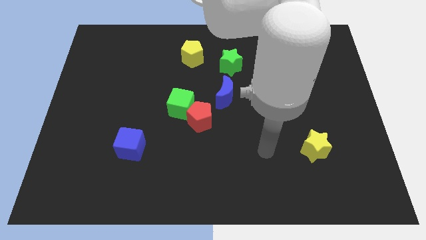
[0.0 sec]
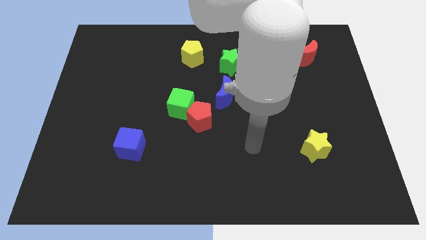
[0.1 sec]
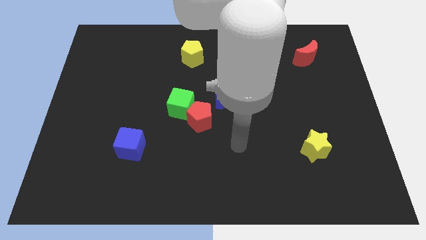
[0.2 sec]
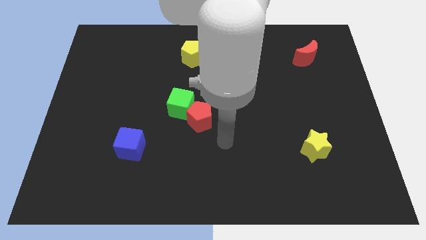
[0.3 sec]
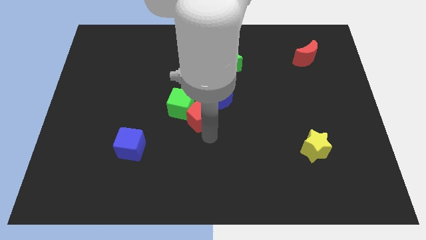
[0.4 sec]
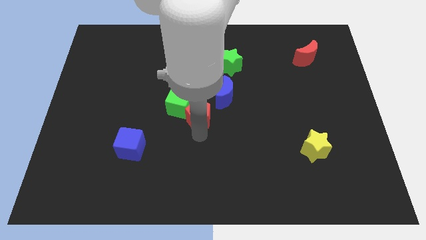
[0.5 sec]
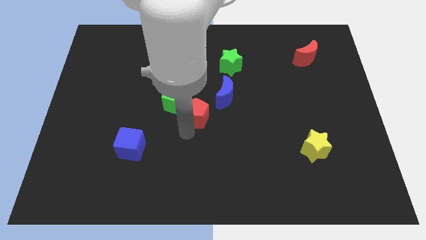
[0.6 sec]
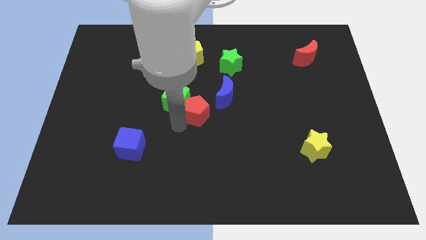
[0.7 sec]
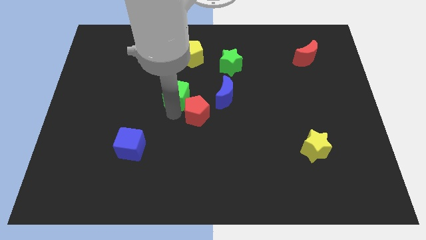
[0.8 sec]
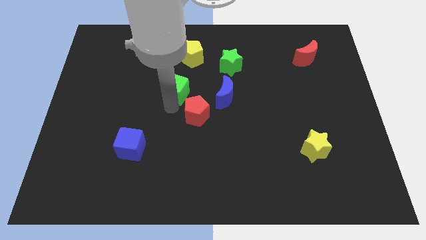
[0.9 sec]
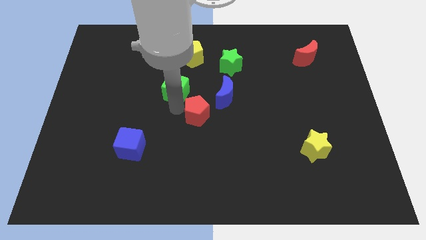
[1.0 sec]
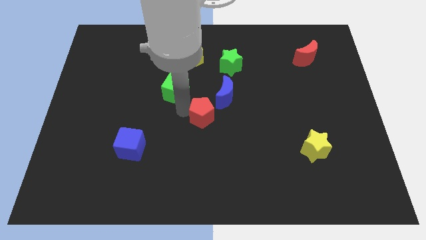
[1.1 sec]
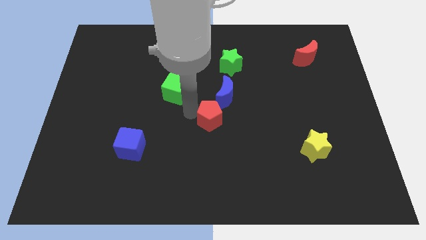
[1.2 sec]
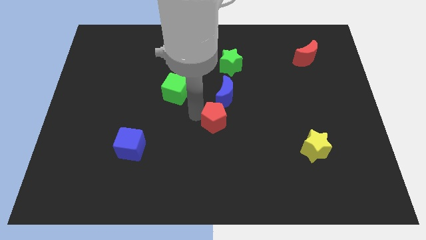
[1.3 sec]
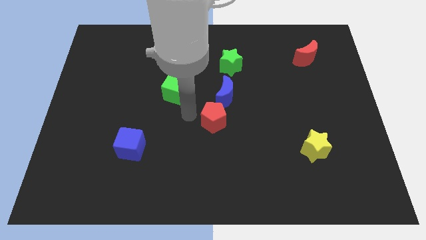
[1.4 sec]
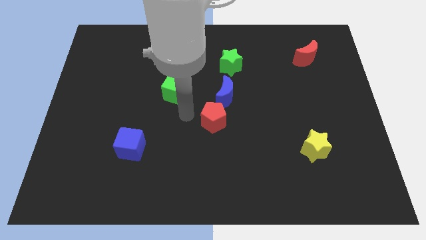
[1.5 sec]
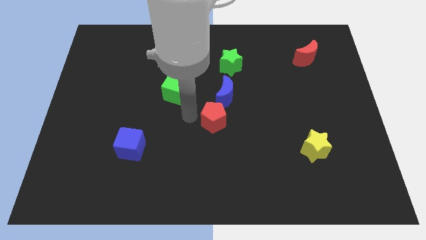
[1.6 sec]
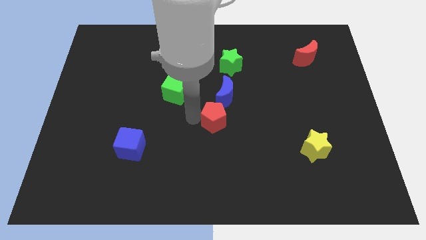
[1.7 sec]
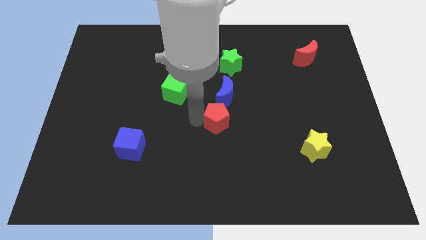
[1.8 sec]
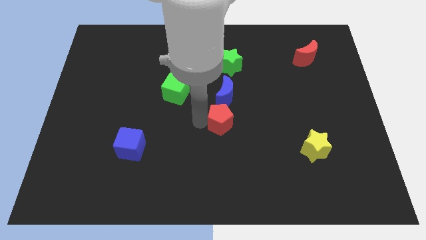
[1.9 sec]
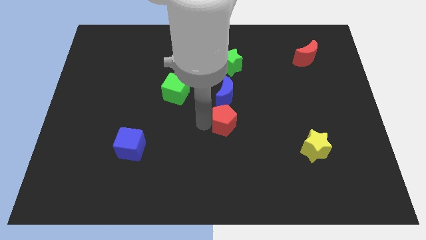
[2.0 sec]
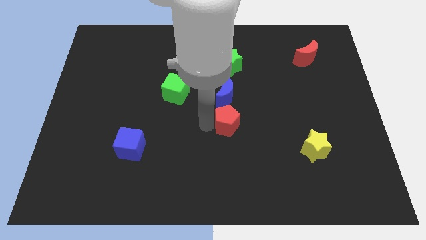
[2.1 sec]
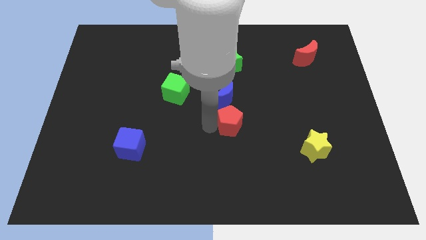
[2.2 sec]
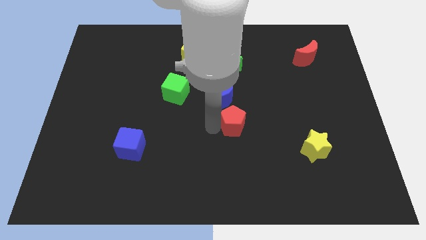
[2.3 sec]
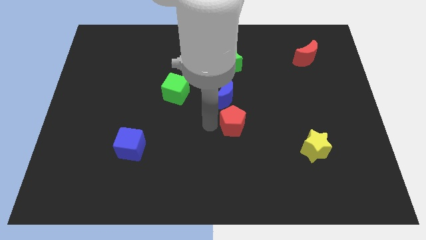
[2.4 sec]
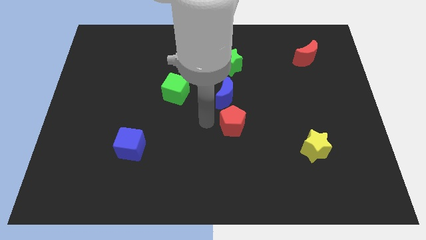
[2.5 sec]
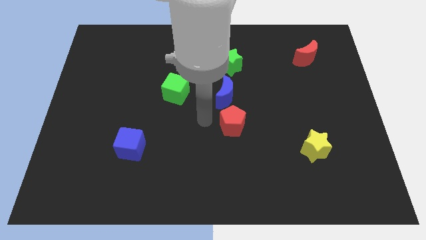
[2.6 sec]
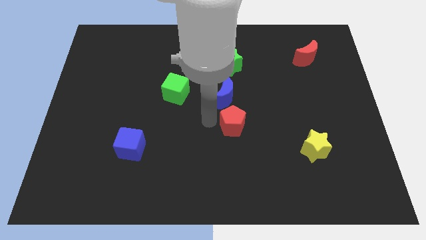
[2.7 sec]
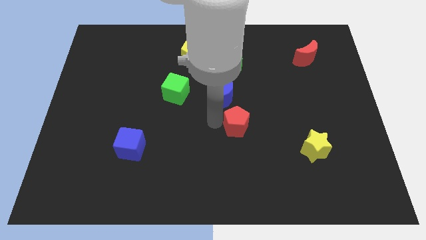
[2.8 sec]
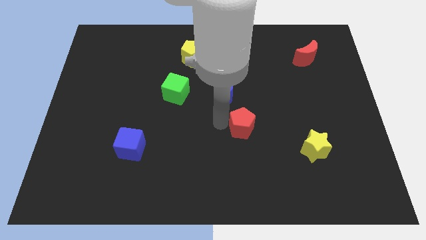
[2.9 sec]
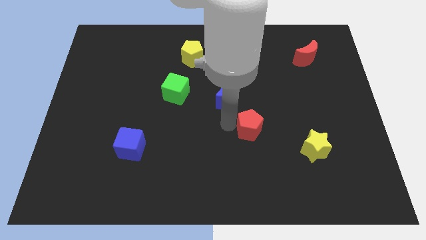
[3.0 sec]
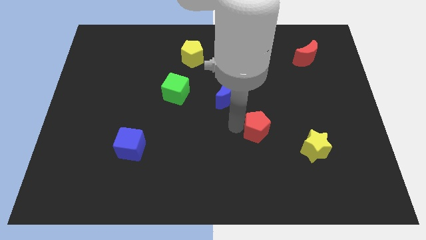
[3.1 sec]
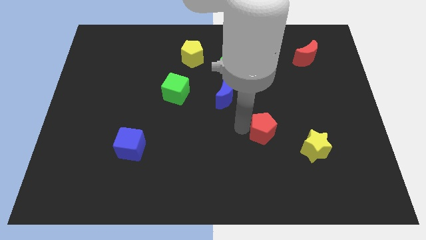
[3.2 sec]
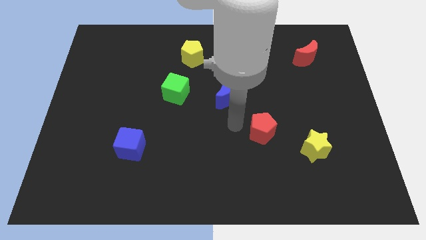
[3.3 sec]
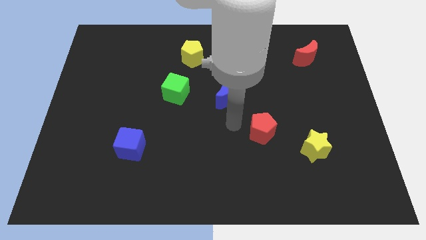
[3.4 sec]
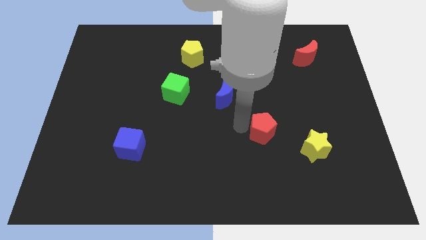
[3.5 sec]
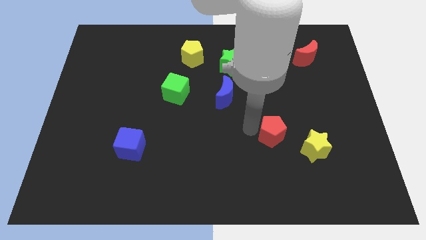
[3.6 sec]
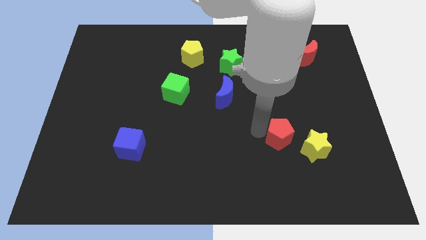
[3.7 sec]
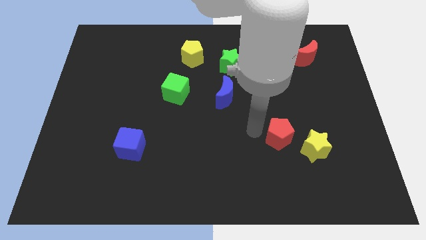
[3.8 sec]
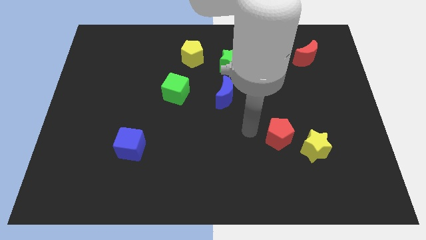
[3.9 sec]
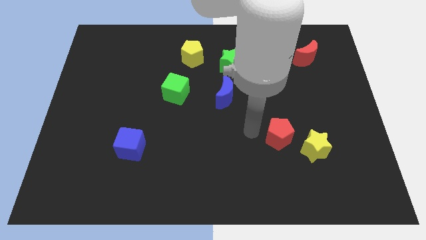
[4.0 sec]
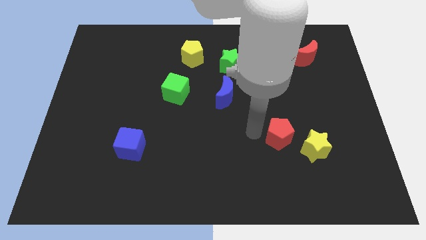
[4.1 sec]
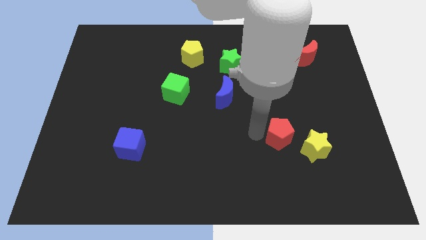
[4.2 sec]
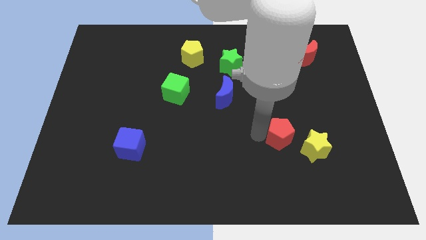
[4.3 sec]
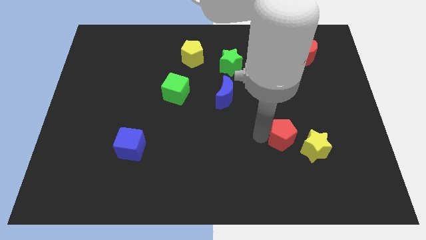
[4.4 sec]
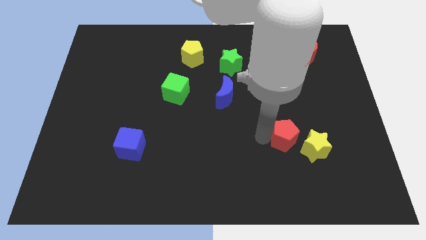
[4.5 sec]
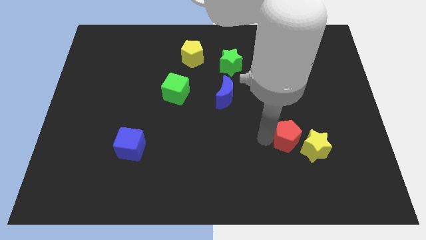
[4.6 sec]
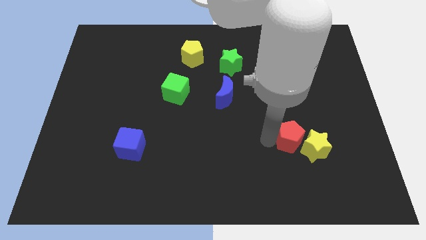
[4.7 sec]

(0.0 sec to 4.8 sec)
move the red pentagon close to the yellow star

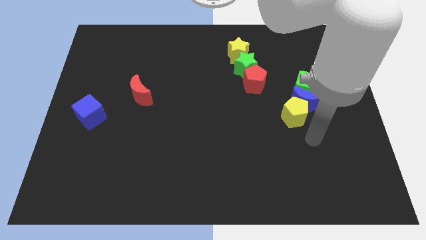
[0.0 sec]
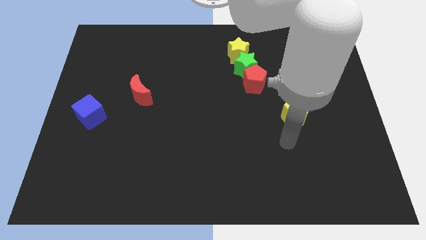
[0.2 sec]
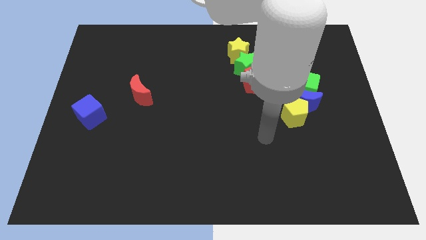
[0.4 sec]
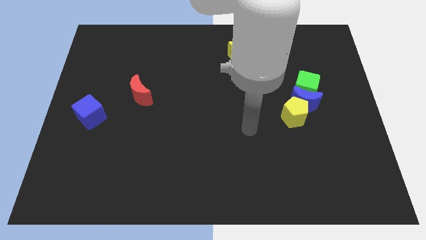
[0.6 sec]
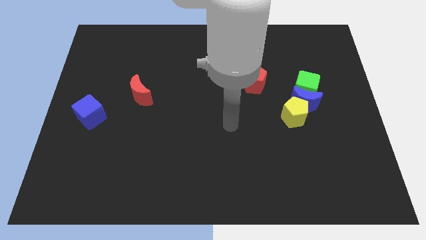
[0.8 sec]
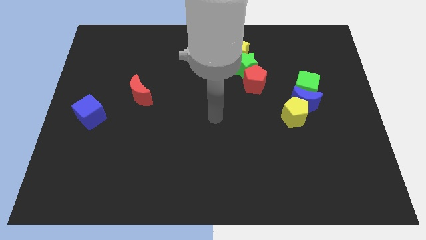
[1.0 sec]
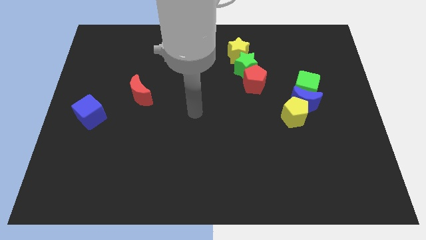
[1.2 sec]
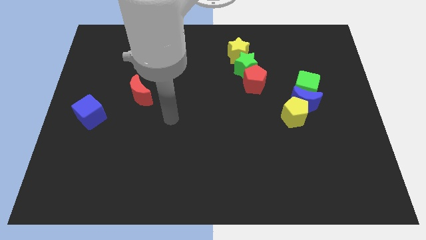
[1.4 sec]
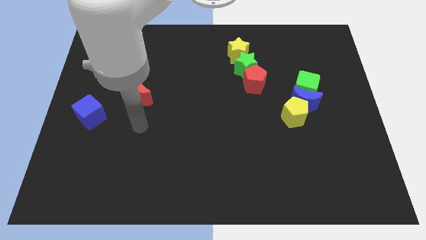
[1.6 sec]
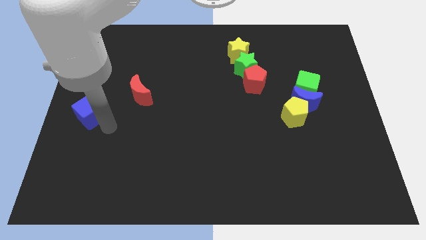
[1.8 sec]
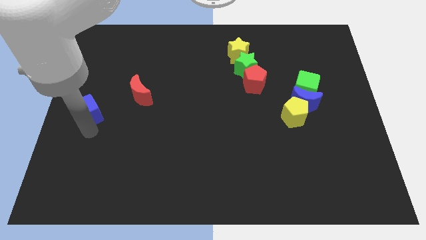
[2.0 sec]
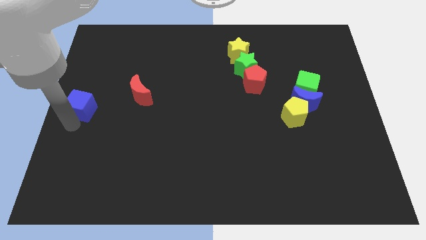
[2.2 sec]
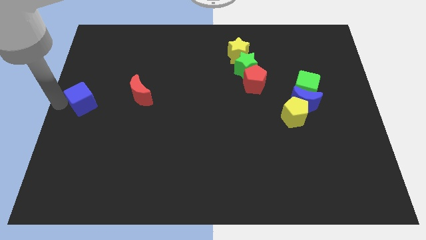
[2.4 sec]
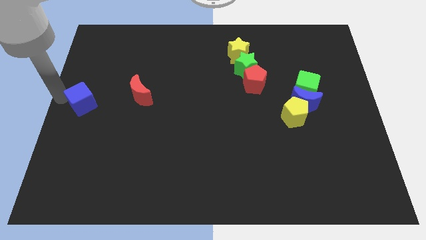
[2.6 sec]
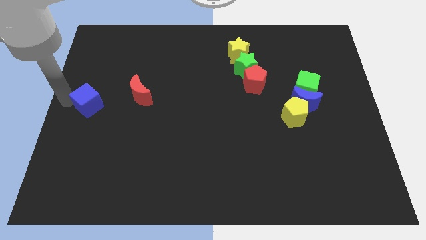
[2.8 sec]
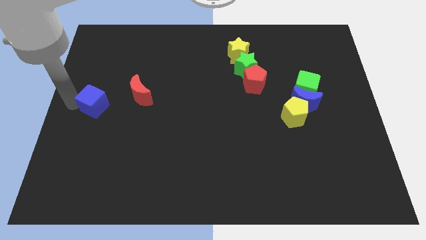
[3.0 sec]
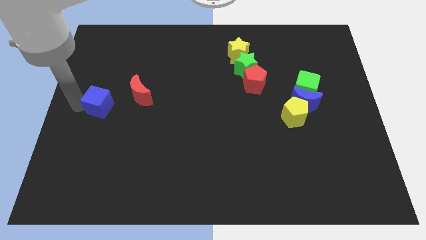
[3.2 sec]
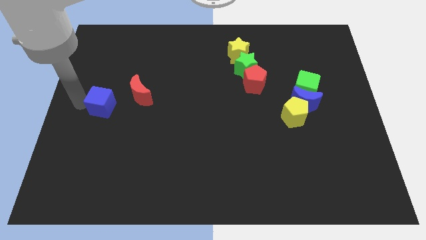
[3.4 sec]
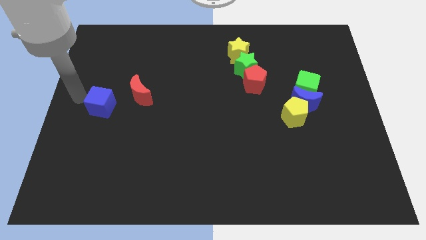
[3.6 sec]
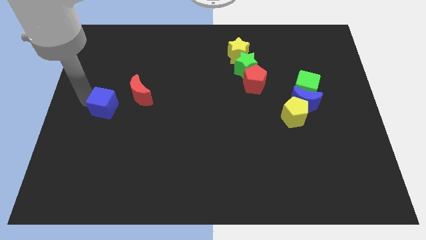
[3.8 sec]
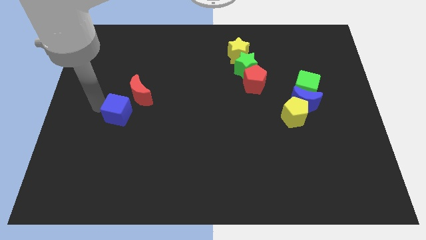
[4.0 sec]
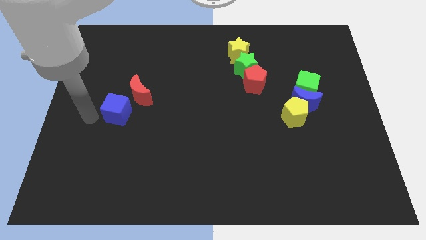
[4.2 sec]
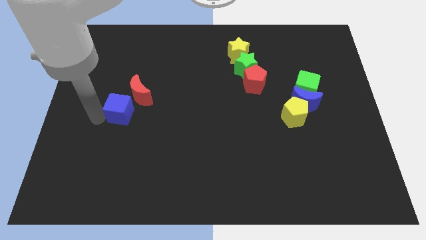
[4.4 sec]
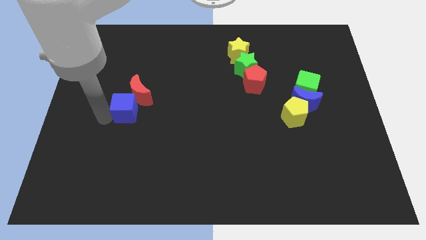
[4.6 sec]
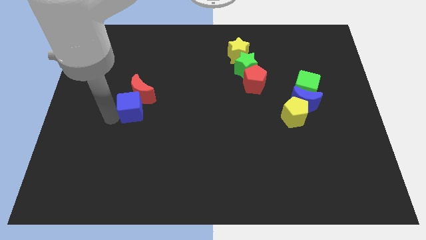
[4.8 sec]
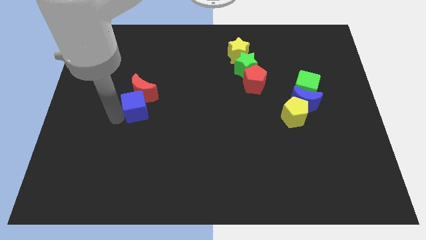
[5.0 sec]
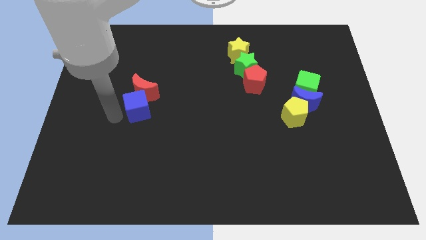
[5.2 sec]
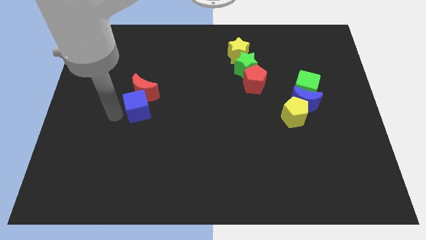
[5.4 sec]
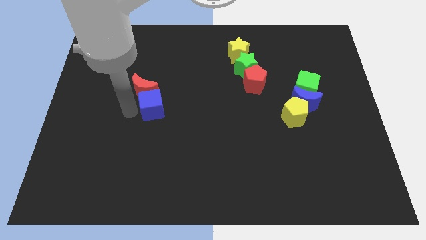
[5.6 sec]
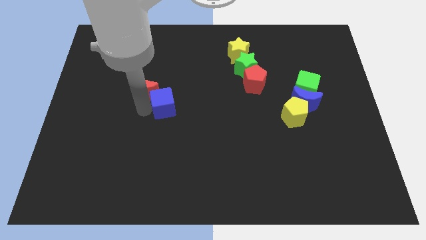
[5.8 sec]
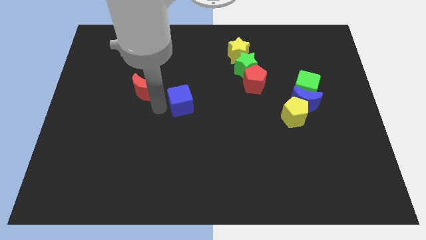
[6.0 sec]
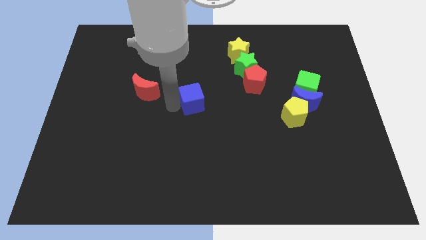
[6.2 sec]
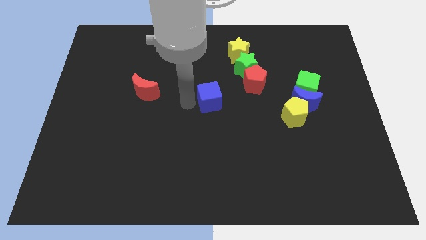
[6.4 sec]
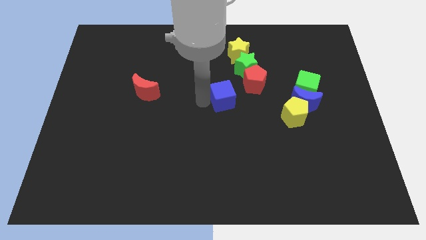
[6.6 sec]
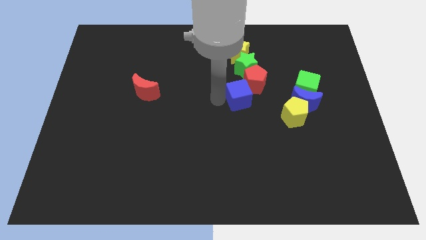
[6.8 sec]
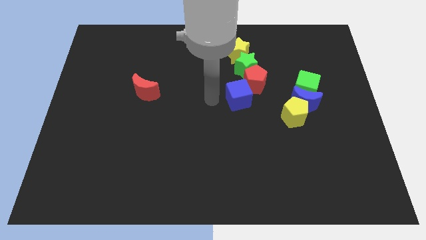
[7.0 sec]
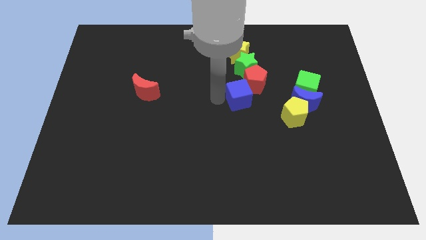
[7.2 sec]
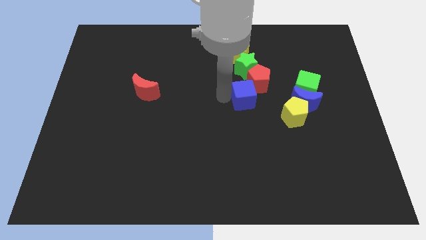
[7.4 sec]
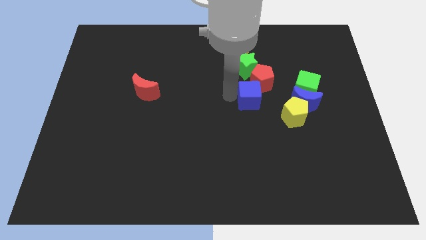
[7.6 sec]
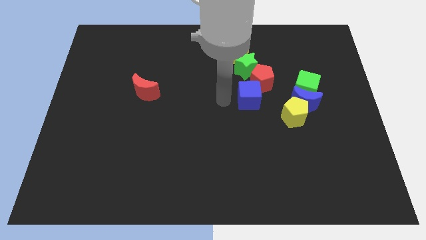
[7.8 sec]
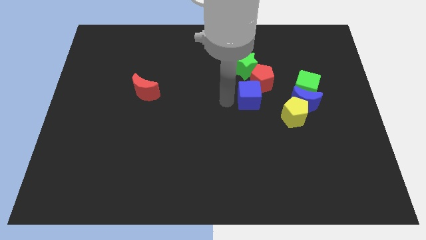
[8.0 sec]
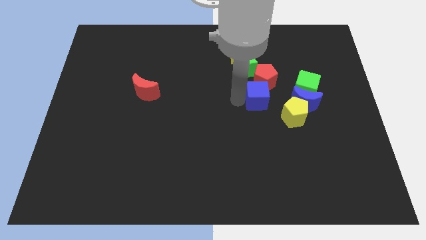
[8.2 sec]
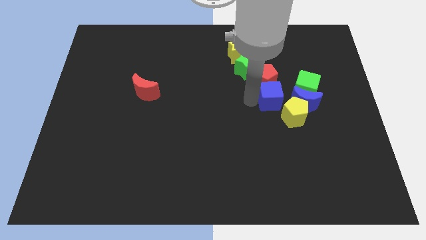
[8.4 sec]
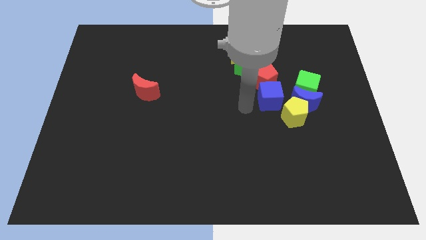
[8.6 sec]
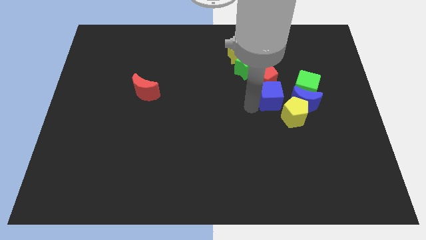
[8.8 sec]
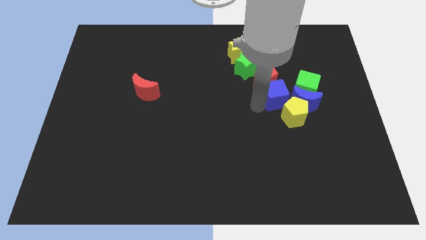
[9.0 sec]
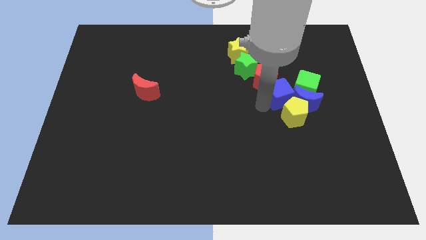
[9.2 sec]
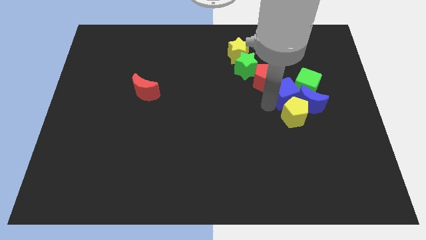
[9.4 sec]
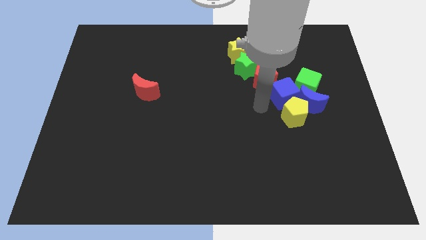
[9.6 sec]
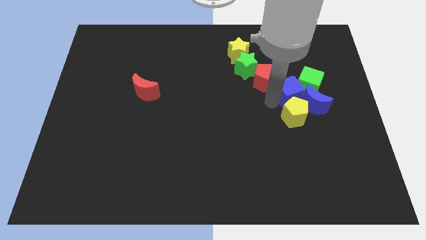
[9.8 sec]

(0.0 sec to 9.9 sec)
put the blue cube to the green cube
